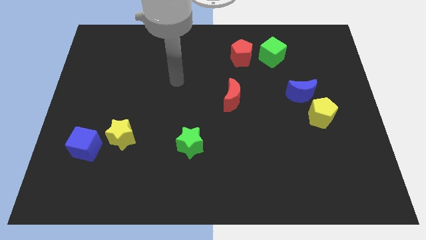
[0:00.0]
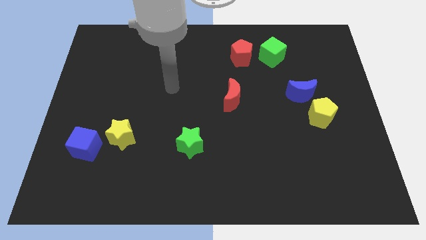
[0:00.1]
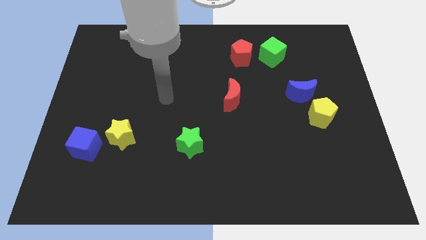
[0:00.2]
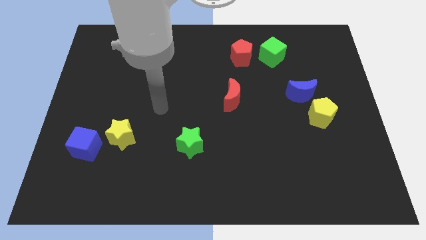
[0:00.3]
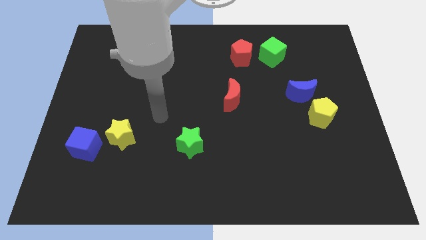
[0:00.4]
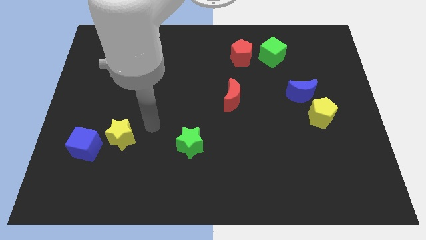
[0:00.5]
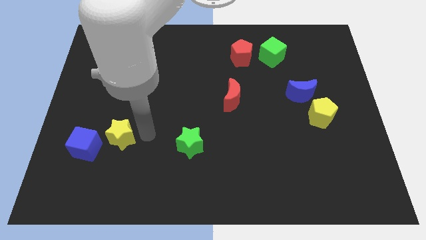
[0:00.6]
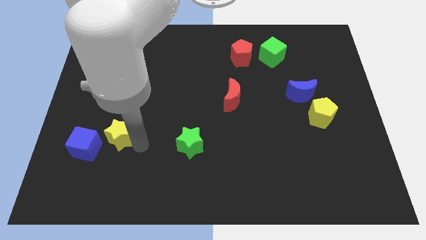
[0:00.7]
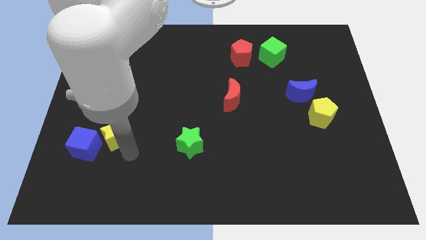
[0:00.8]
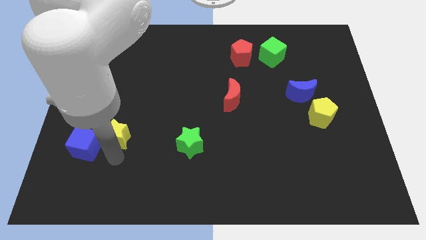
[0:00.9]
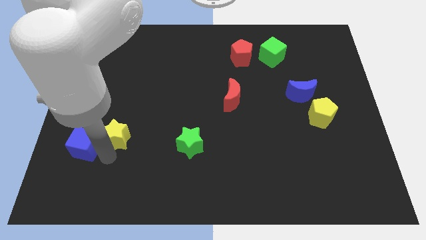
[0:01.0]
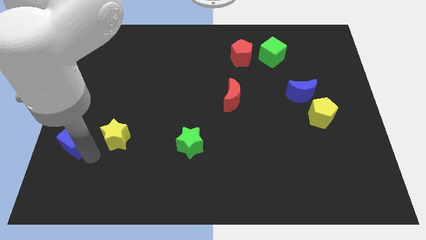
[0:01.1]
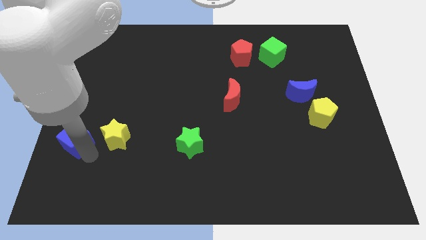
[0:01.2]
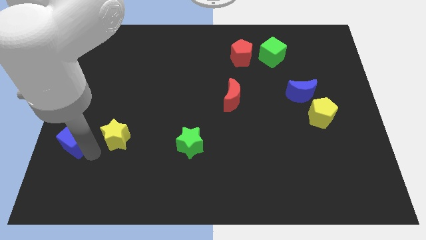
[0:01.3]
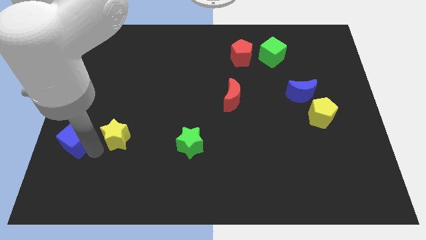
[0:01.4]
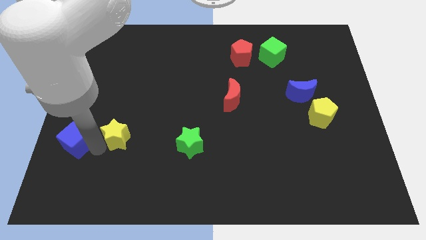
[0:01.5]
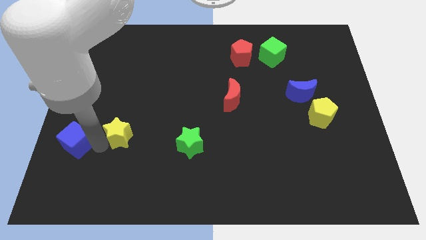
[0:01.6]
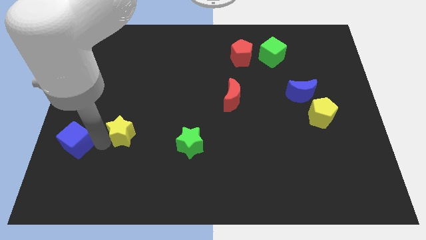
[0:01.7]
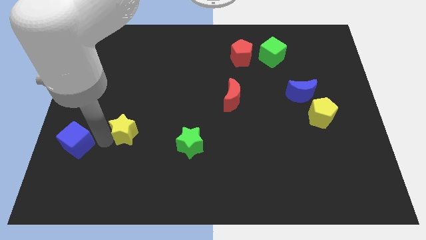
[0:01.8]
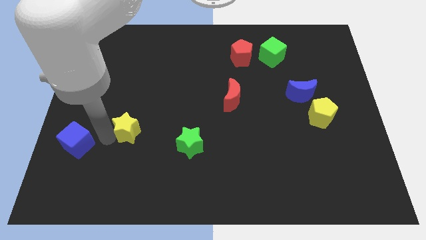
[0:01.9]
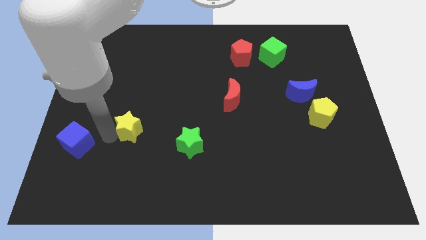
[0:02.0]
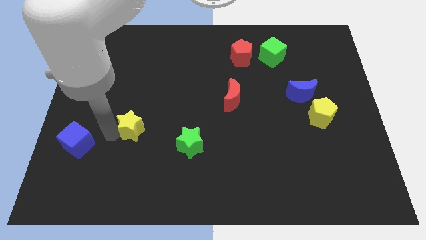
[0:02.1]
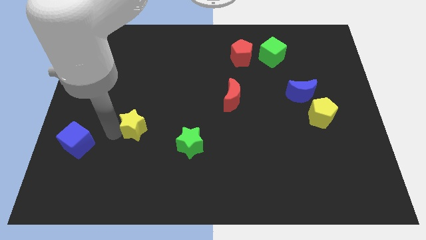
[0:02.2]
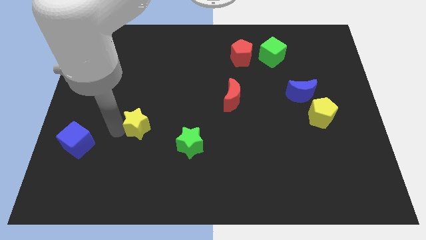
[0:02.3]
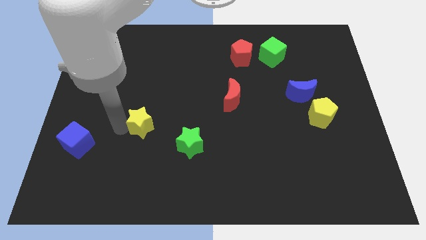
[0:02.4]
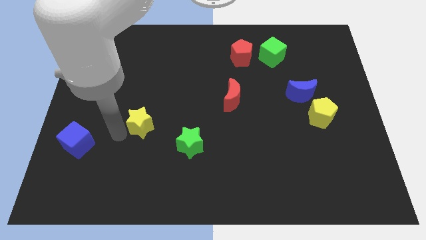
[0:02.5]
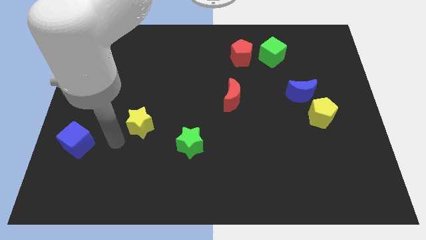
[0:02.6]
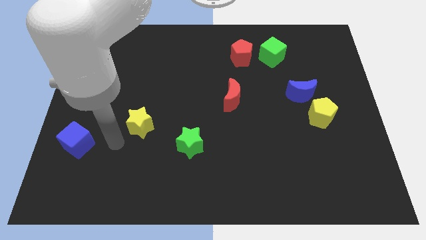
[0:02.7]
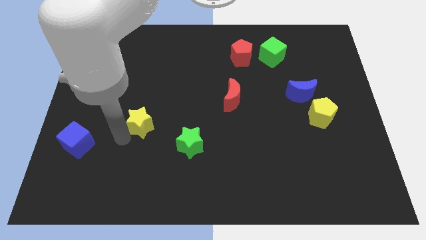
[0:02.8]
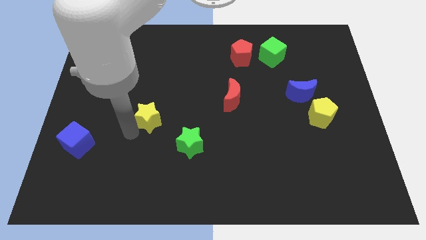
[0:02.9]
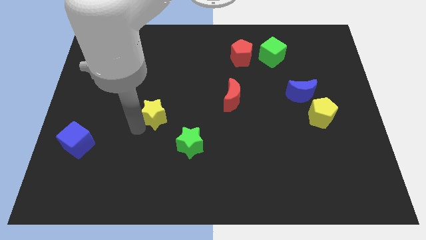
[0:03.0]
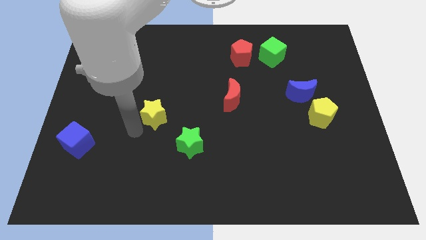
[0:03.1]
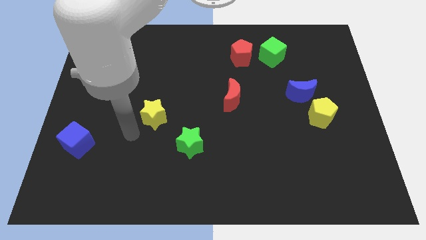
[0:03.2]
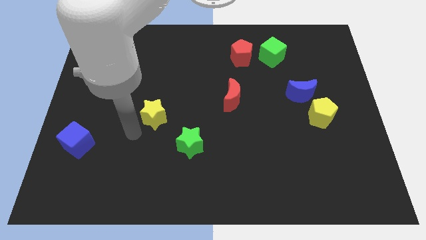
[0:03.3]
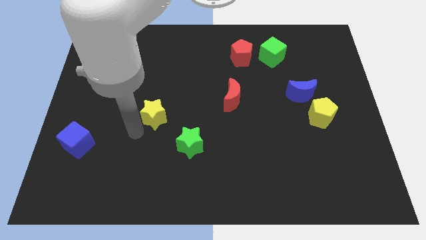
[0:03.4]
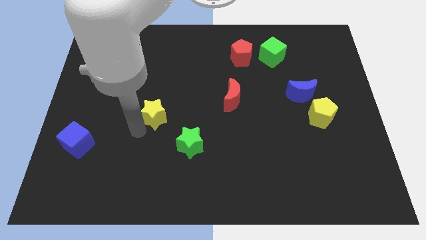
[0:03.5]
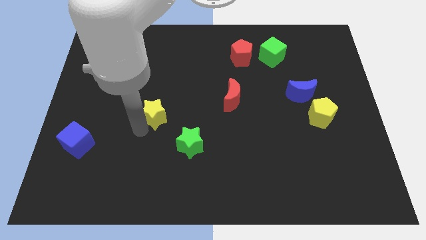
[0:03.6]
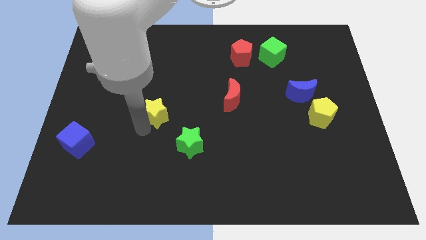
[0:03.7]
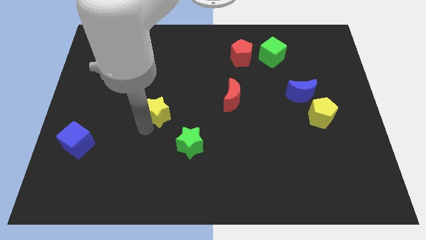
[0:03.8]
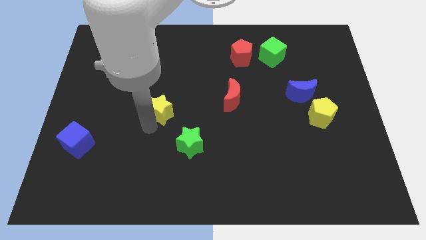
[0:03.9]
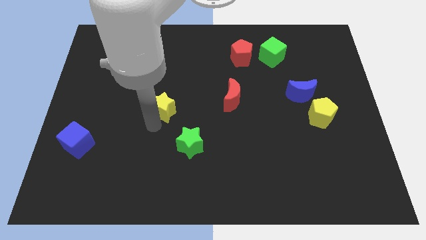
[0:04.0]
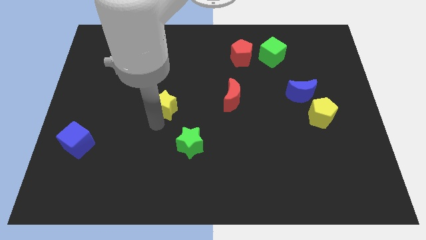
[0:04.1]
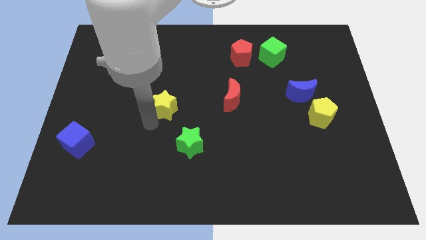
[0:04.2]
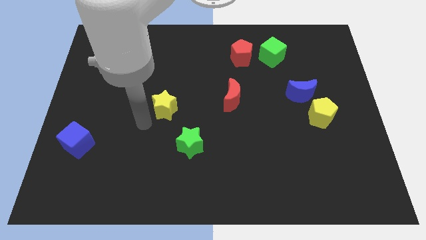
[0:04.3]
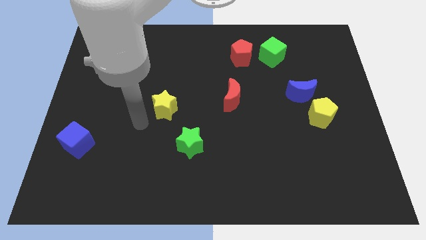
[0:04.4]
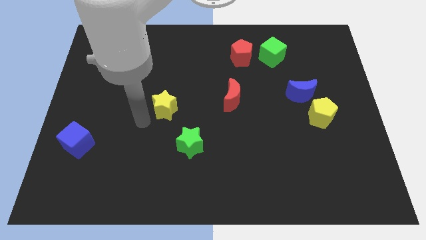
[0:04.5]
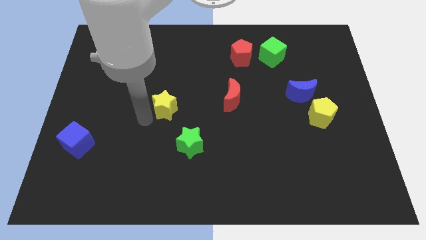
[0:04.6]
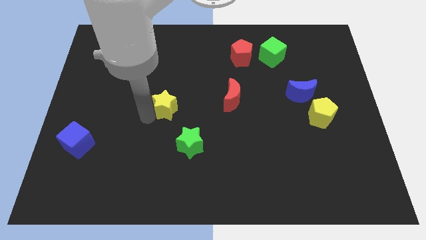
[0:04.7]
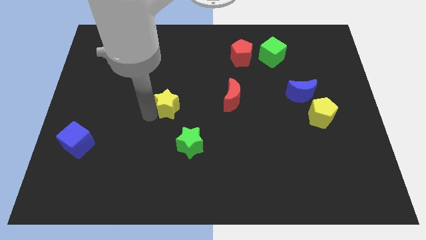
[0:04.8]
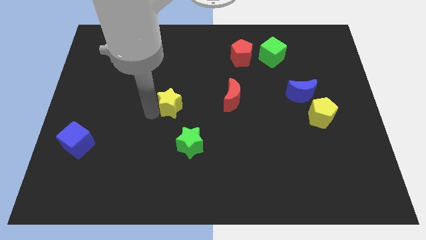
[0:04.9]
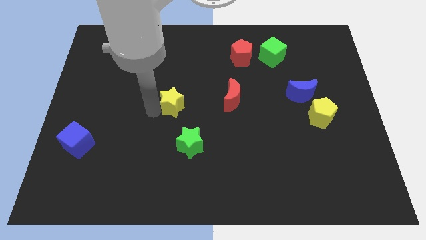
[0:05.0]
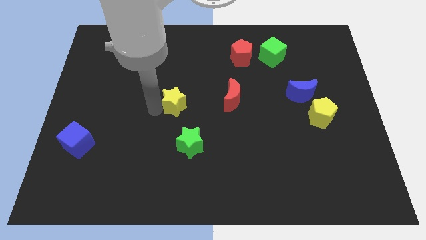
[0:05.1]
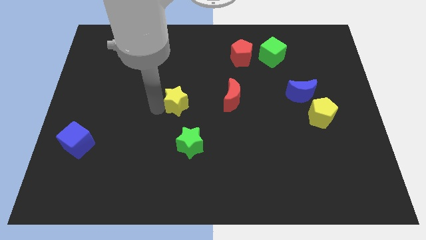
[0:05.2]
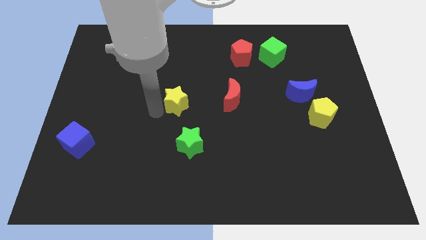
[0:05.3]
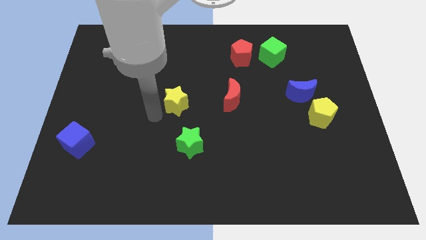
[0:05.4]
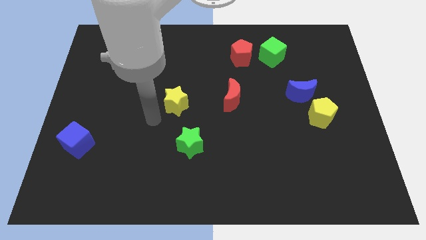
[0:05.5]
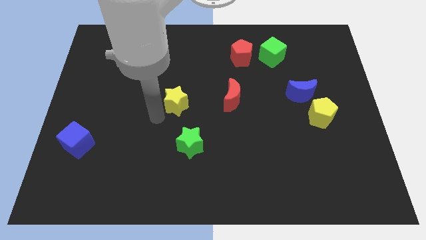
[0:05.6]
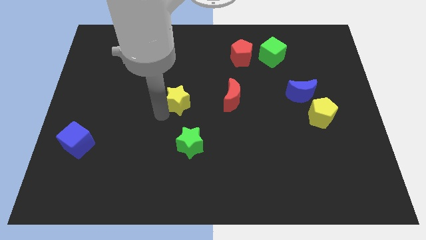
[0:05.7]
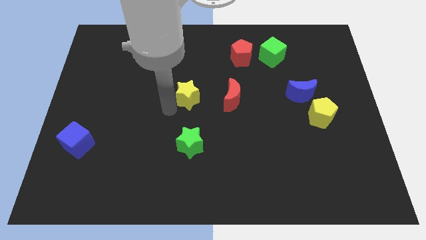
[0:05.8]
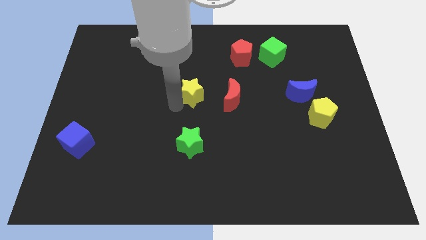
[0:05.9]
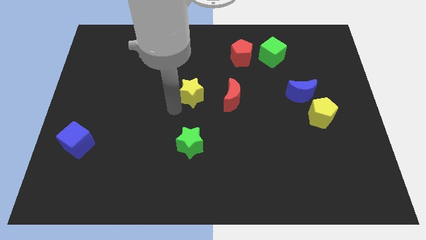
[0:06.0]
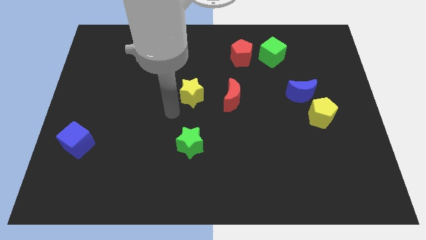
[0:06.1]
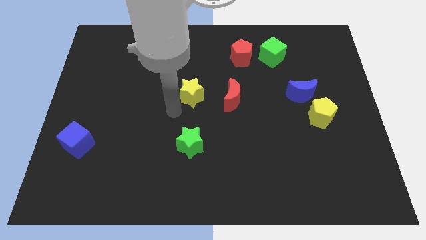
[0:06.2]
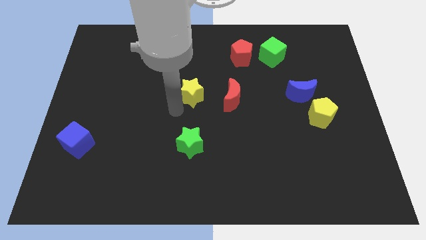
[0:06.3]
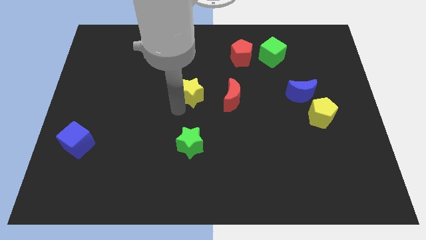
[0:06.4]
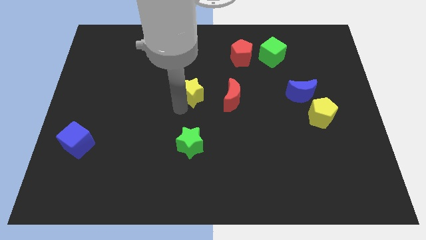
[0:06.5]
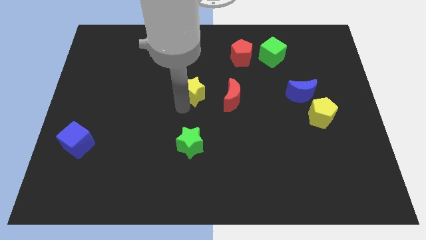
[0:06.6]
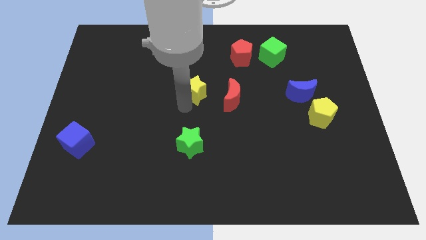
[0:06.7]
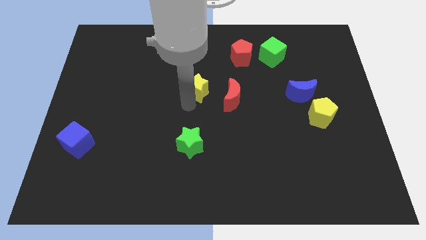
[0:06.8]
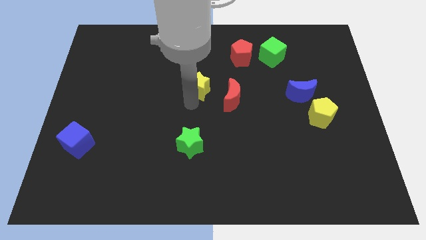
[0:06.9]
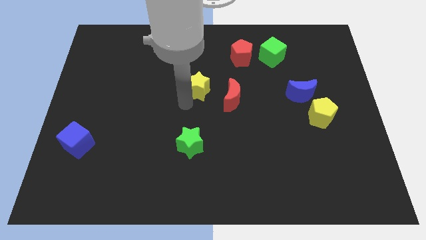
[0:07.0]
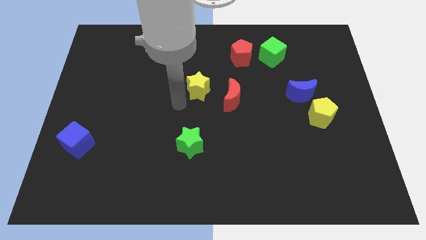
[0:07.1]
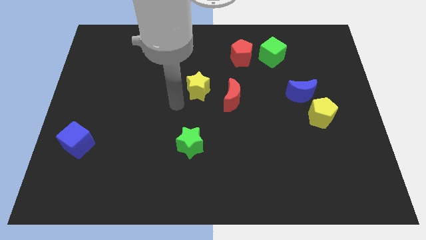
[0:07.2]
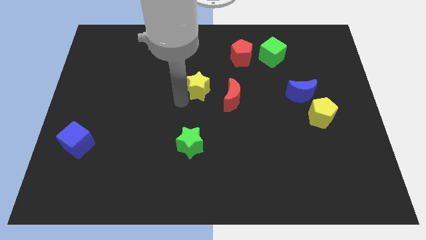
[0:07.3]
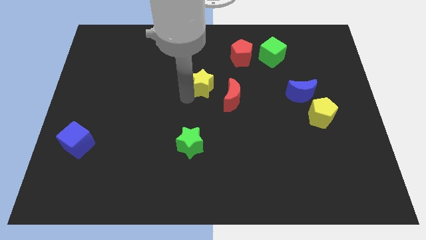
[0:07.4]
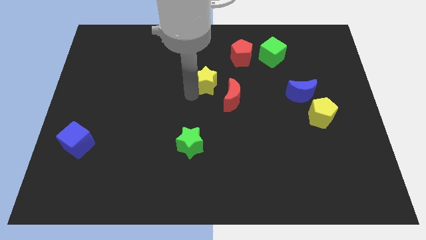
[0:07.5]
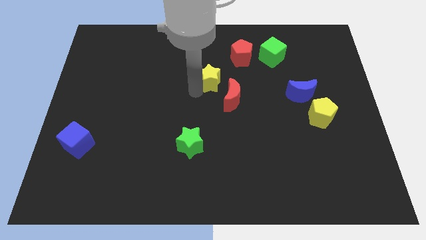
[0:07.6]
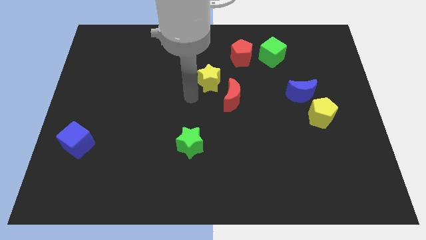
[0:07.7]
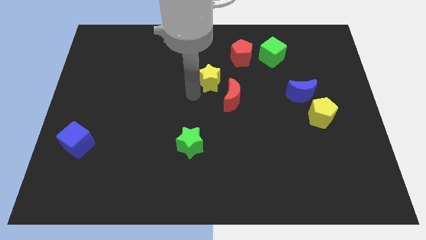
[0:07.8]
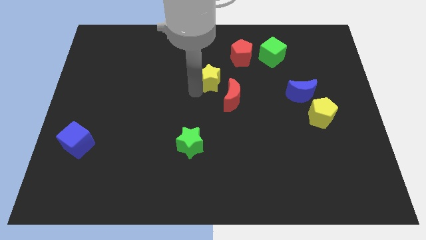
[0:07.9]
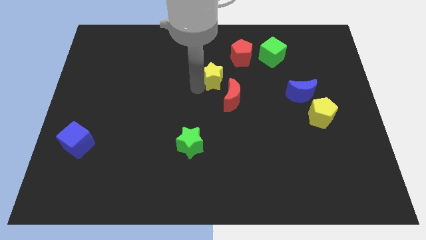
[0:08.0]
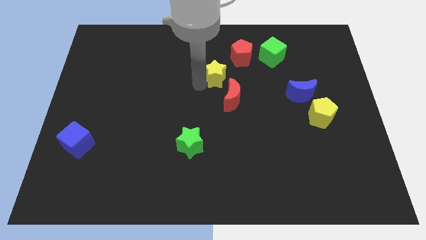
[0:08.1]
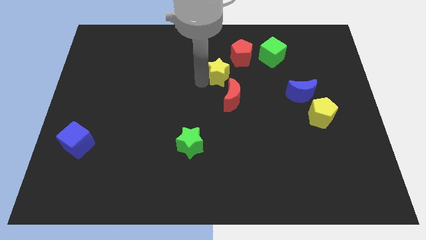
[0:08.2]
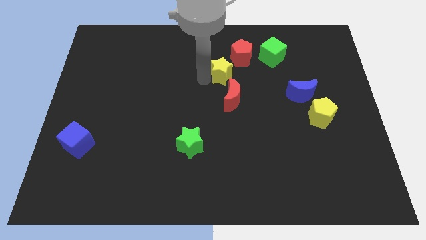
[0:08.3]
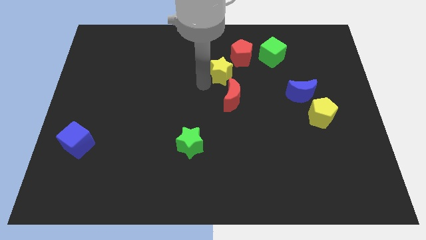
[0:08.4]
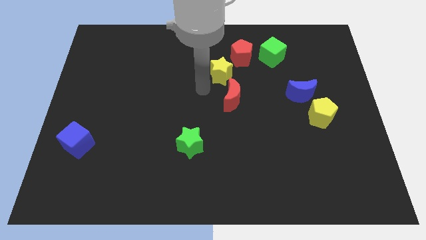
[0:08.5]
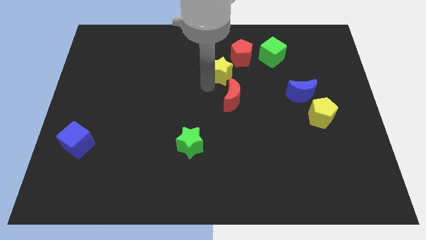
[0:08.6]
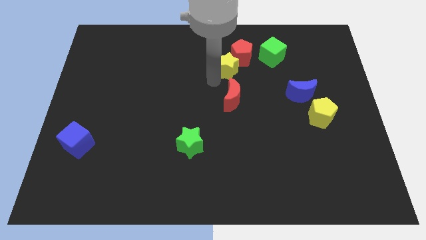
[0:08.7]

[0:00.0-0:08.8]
slide the yellow star close to the red pentagon
